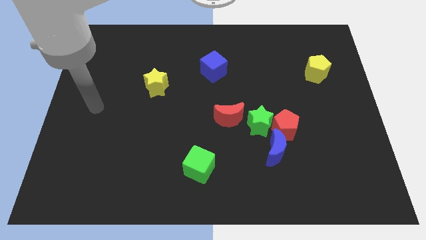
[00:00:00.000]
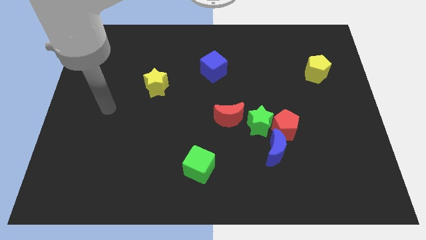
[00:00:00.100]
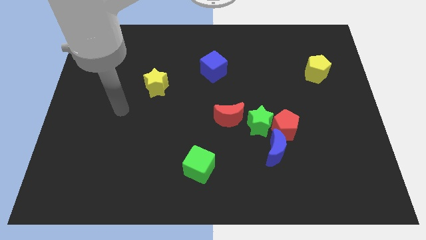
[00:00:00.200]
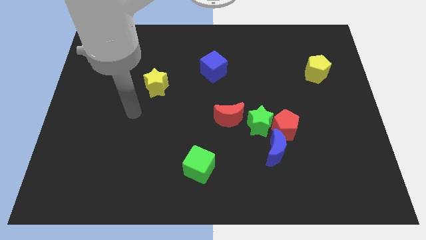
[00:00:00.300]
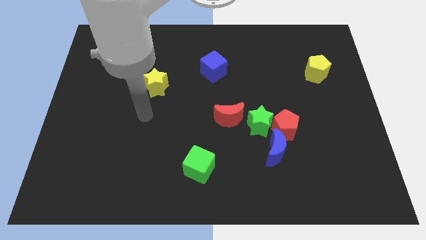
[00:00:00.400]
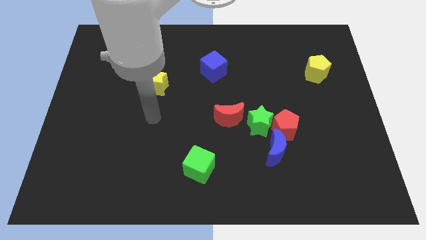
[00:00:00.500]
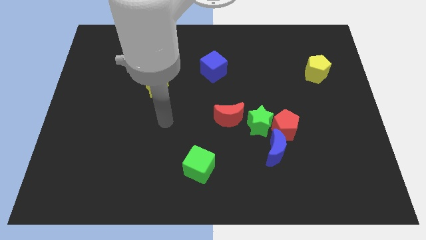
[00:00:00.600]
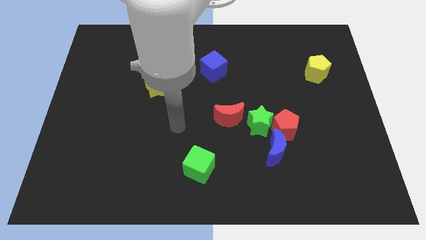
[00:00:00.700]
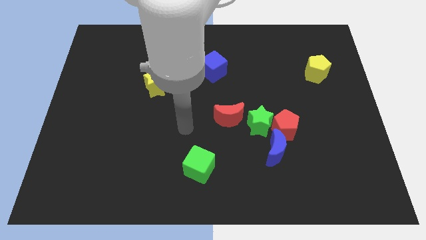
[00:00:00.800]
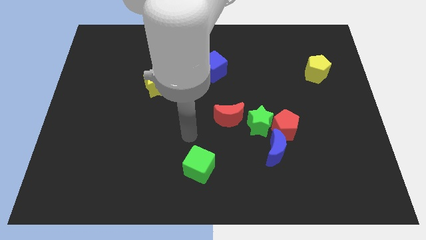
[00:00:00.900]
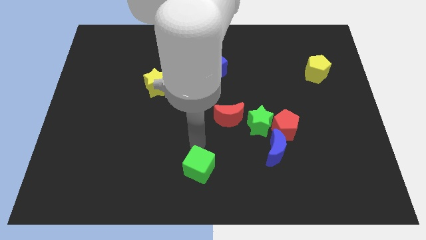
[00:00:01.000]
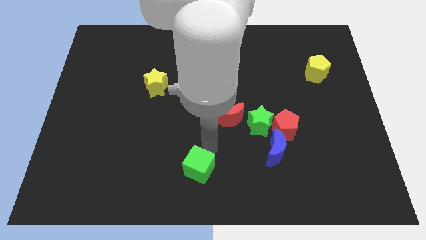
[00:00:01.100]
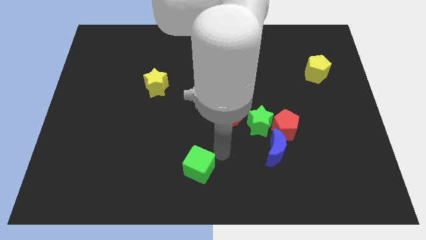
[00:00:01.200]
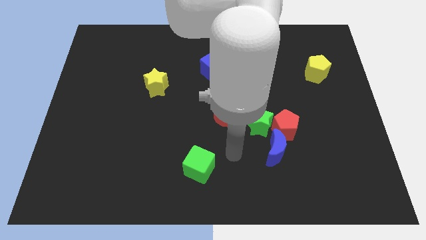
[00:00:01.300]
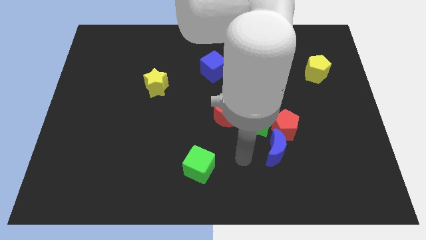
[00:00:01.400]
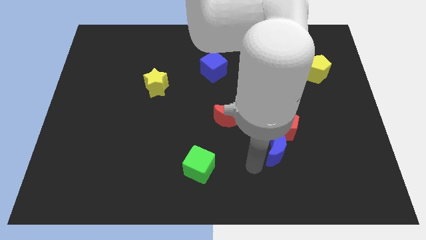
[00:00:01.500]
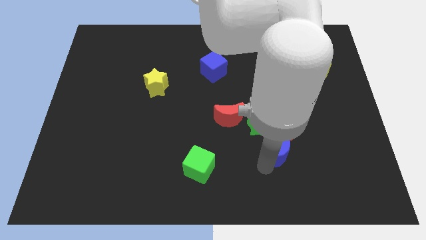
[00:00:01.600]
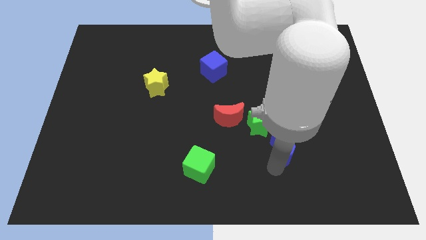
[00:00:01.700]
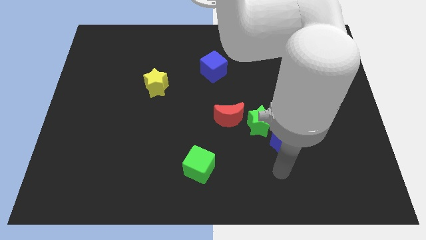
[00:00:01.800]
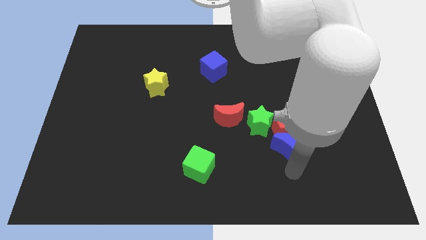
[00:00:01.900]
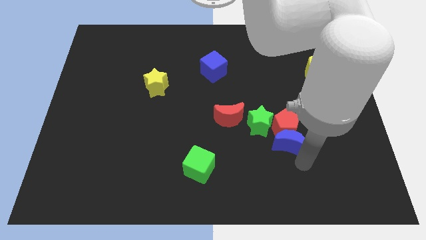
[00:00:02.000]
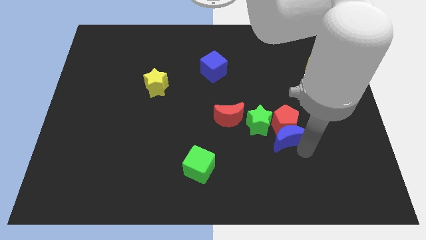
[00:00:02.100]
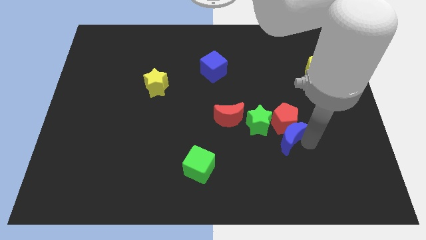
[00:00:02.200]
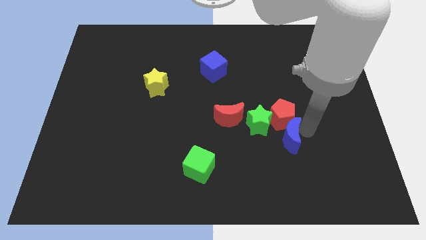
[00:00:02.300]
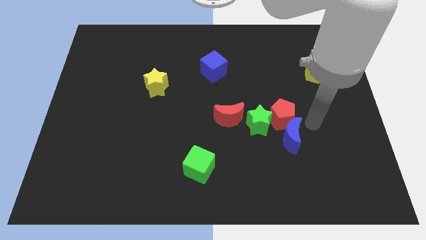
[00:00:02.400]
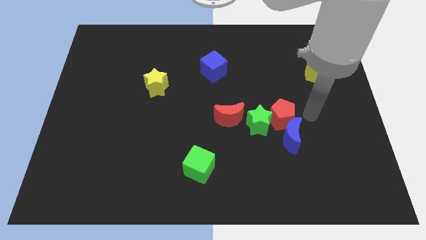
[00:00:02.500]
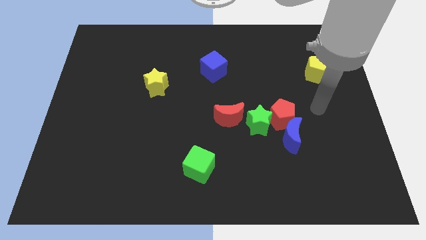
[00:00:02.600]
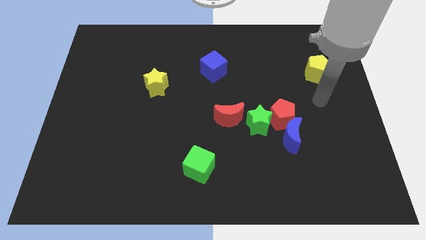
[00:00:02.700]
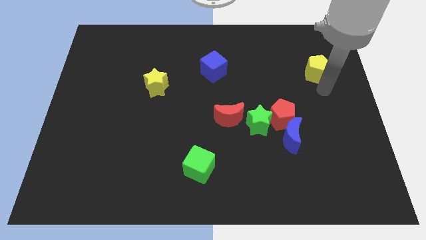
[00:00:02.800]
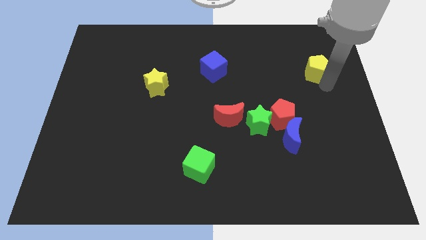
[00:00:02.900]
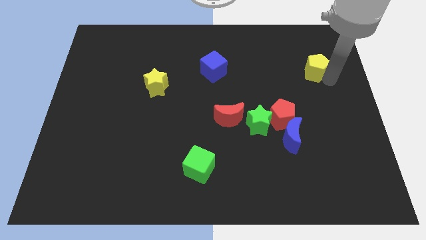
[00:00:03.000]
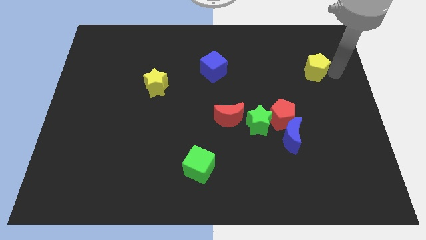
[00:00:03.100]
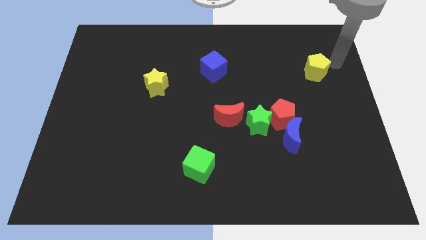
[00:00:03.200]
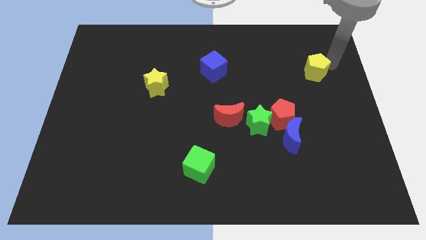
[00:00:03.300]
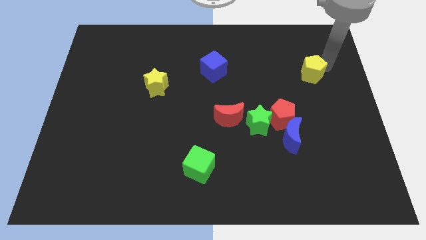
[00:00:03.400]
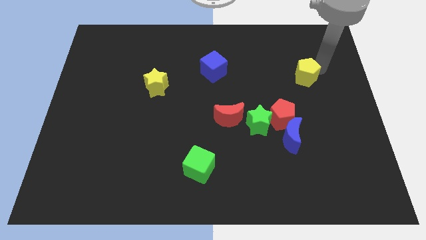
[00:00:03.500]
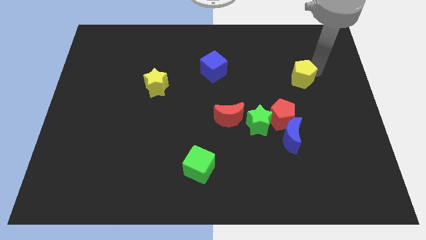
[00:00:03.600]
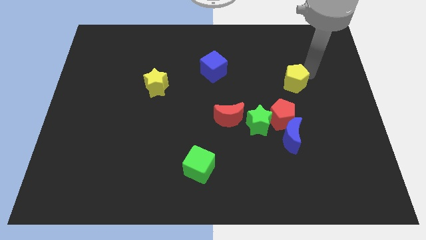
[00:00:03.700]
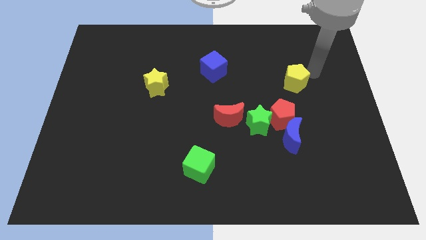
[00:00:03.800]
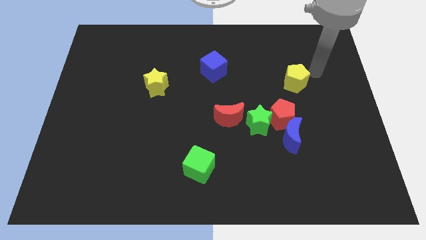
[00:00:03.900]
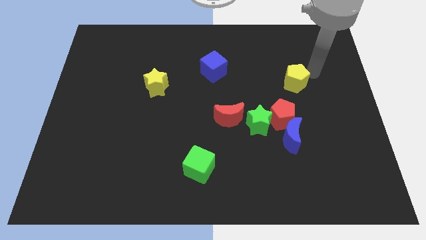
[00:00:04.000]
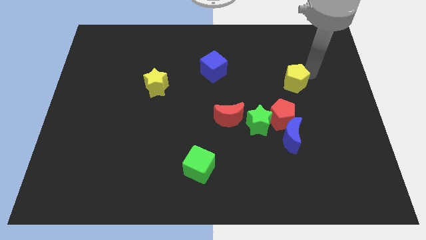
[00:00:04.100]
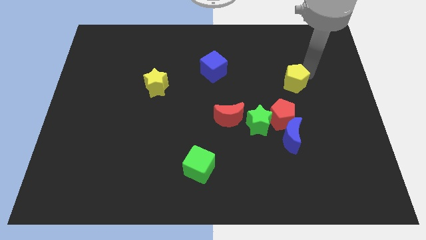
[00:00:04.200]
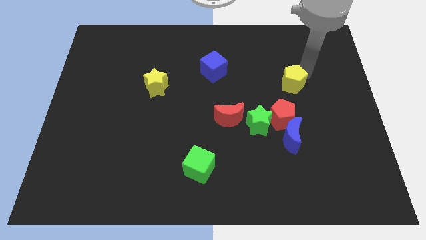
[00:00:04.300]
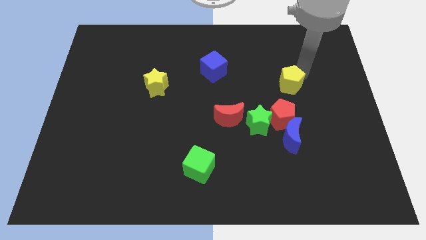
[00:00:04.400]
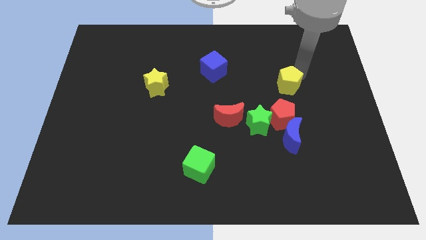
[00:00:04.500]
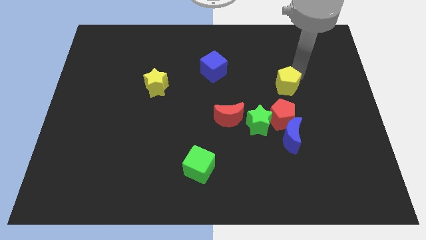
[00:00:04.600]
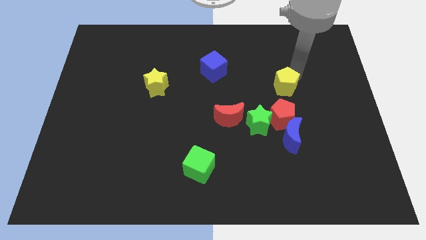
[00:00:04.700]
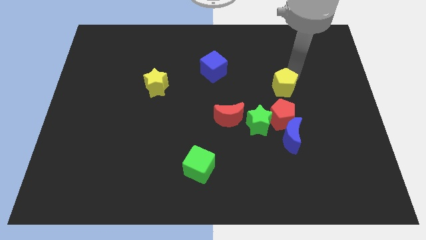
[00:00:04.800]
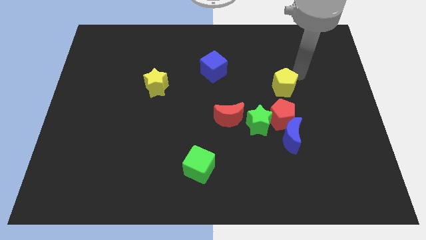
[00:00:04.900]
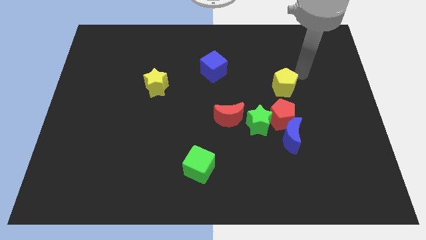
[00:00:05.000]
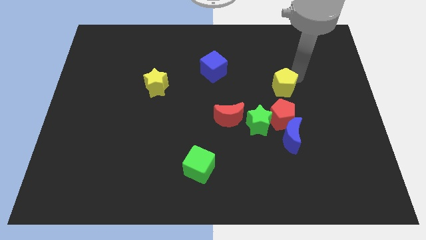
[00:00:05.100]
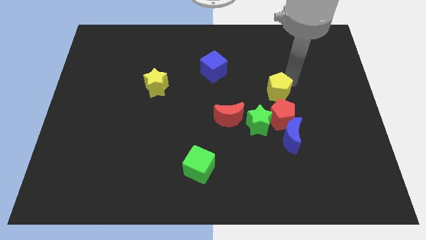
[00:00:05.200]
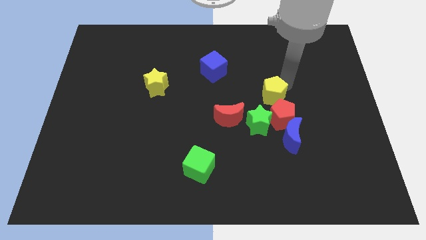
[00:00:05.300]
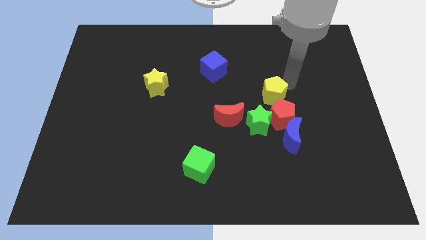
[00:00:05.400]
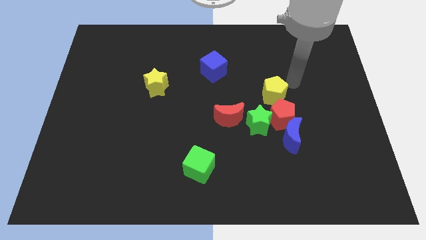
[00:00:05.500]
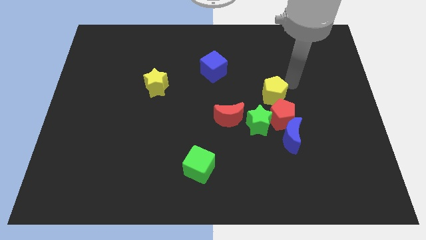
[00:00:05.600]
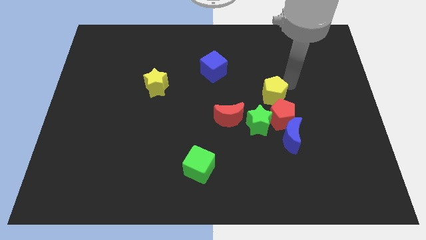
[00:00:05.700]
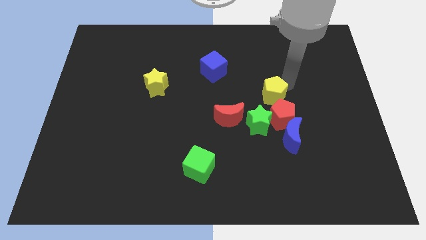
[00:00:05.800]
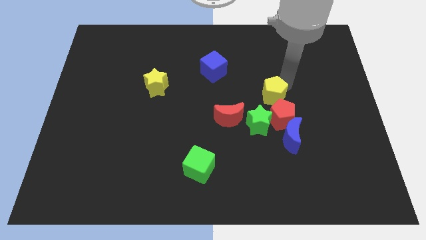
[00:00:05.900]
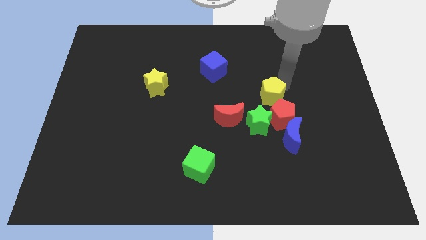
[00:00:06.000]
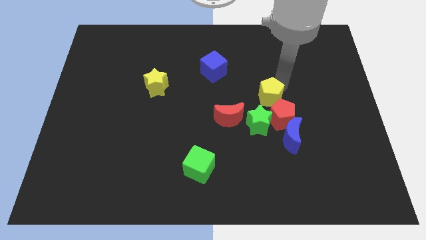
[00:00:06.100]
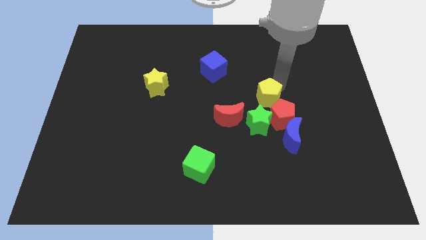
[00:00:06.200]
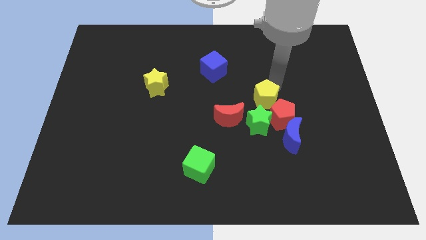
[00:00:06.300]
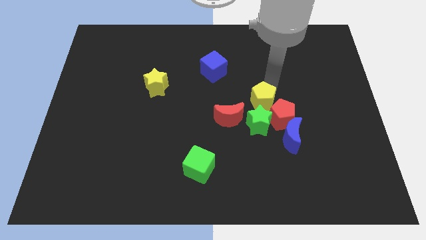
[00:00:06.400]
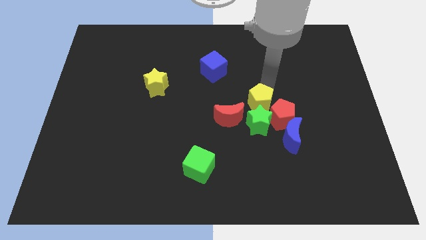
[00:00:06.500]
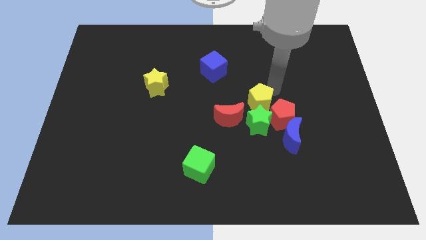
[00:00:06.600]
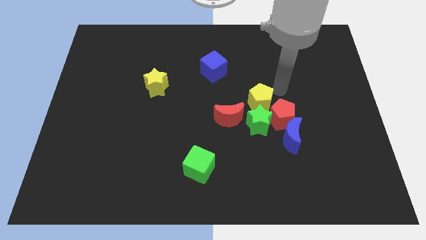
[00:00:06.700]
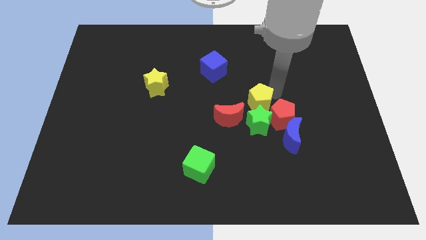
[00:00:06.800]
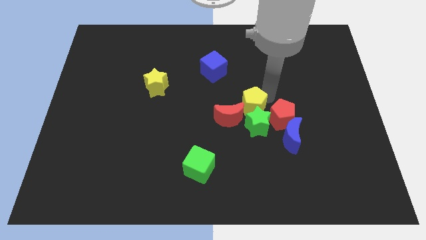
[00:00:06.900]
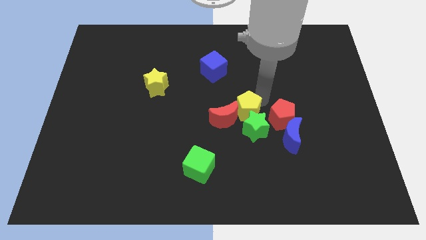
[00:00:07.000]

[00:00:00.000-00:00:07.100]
move the yellow pentagon next to the red moon

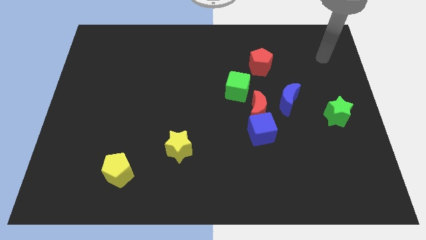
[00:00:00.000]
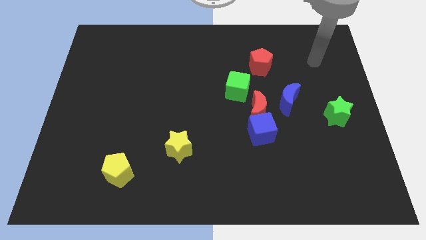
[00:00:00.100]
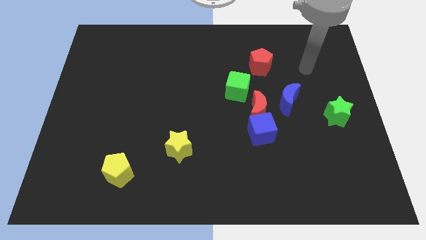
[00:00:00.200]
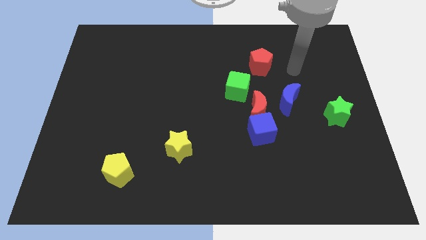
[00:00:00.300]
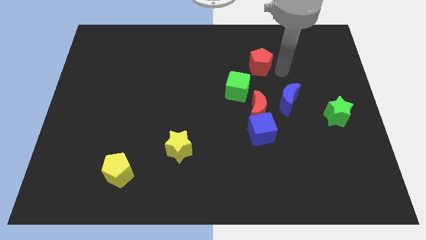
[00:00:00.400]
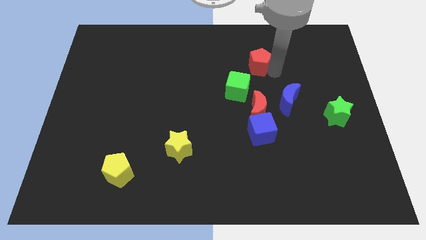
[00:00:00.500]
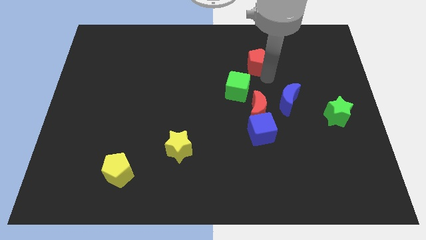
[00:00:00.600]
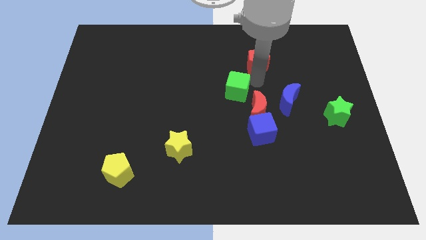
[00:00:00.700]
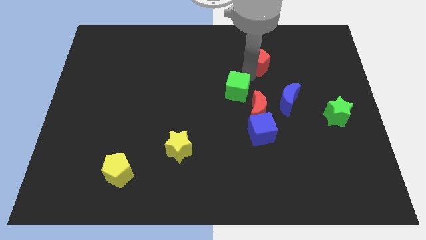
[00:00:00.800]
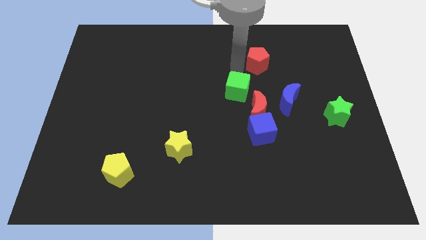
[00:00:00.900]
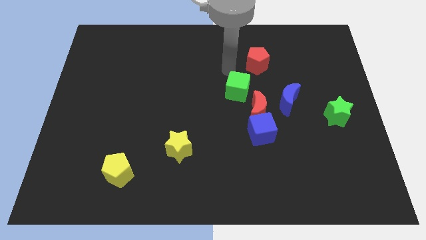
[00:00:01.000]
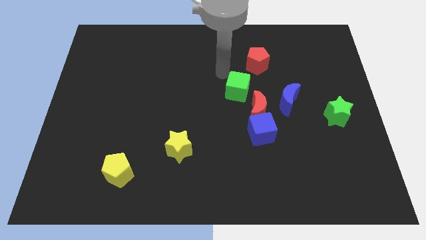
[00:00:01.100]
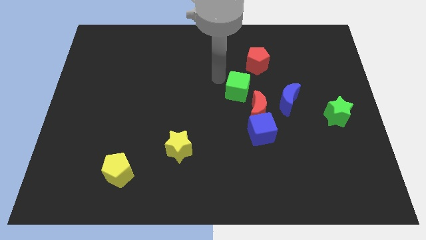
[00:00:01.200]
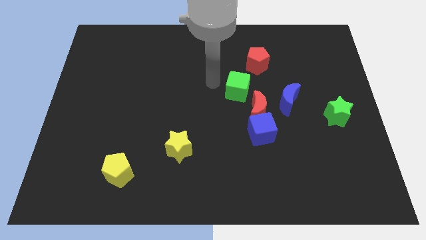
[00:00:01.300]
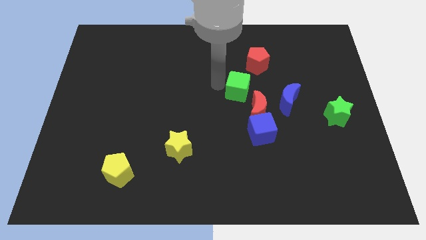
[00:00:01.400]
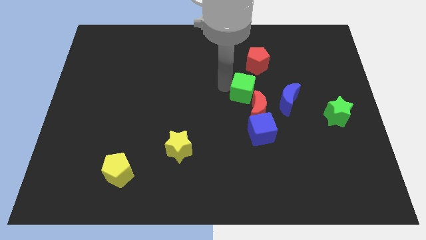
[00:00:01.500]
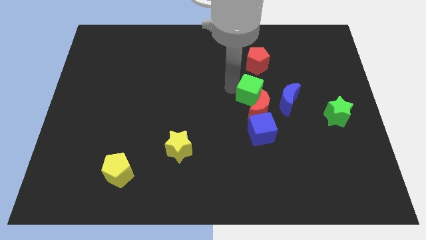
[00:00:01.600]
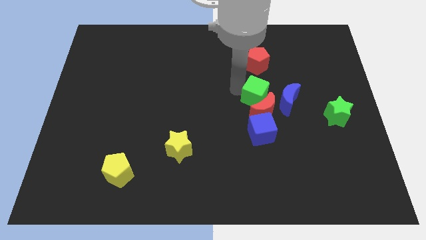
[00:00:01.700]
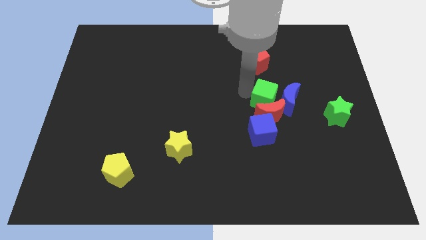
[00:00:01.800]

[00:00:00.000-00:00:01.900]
move the green cube towards the blue moon
